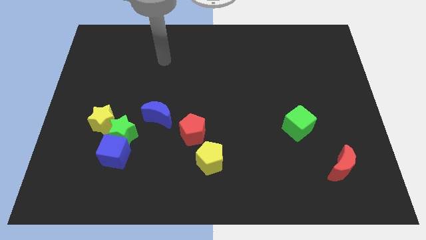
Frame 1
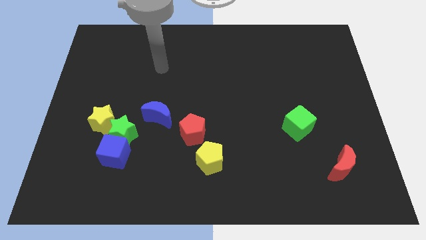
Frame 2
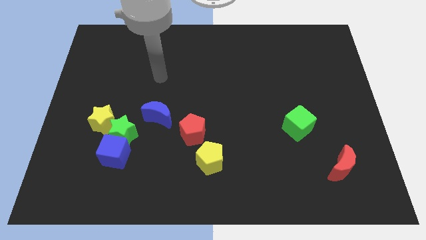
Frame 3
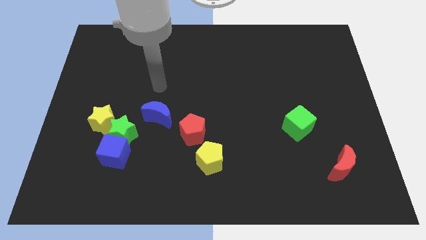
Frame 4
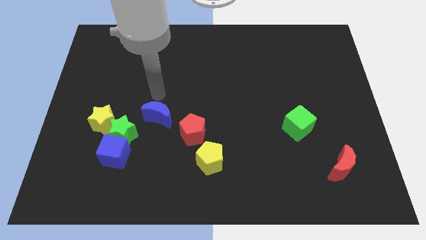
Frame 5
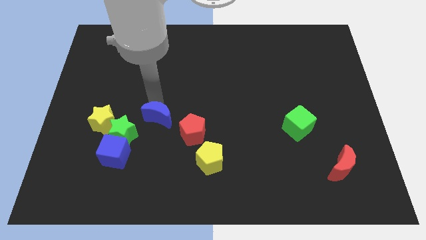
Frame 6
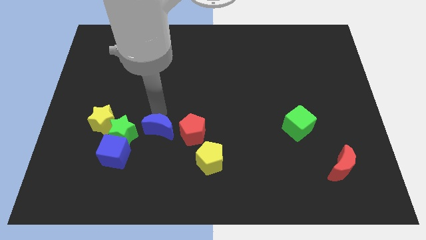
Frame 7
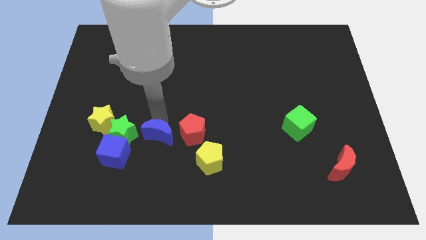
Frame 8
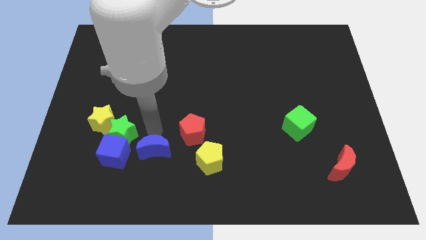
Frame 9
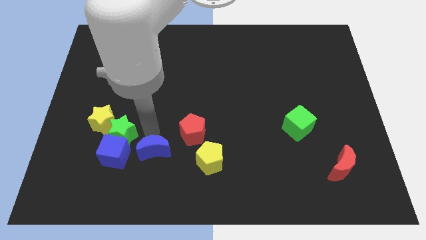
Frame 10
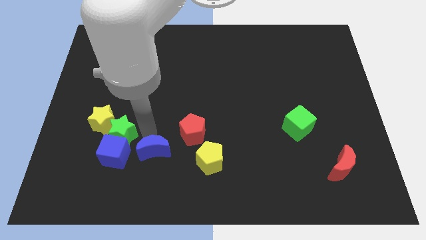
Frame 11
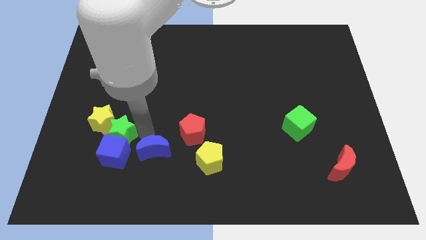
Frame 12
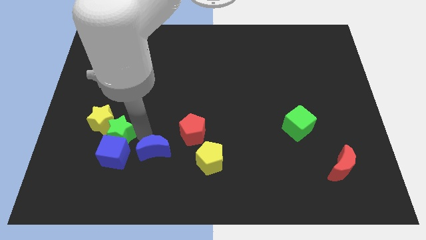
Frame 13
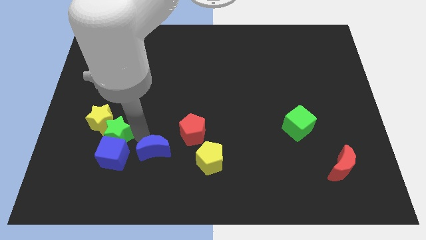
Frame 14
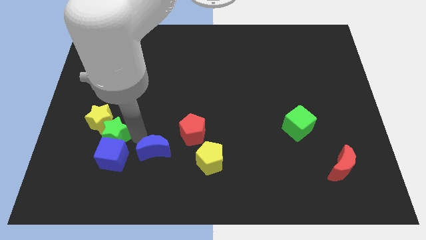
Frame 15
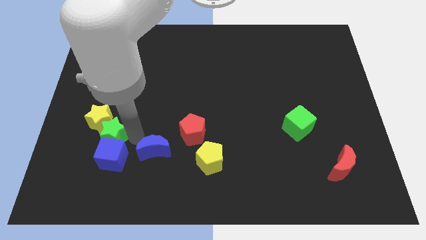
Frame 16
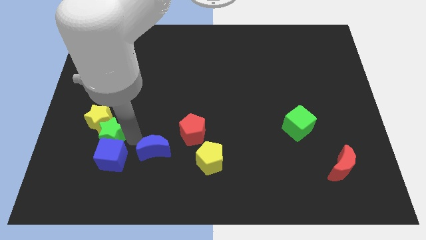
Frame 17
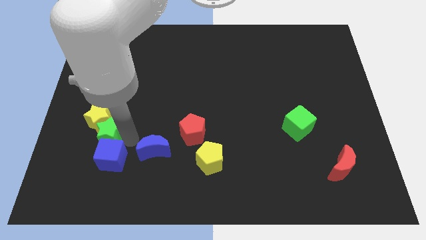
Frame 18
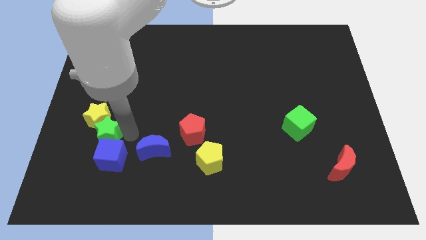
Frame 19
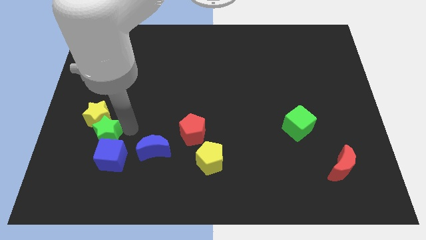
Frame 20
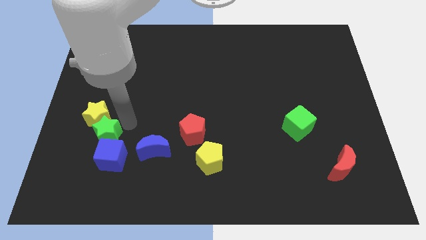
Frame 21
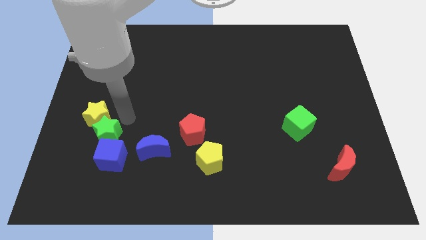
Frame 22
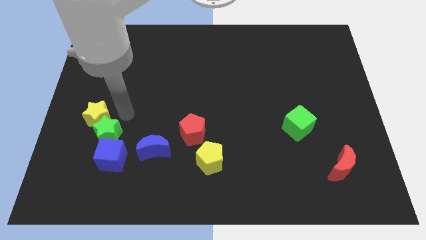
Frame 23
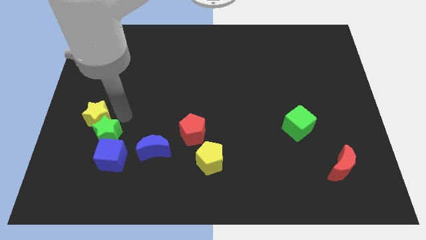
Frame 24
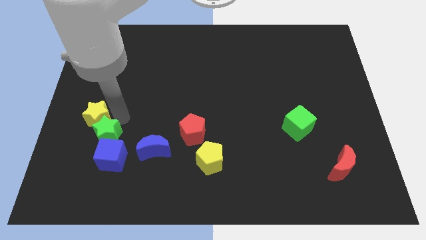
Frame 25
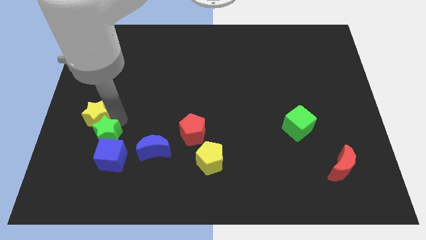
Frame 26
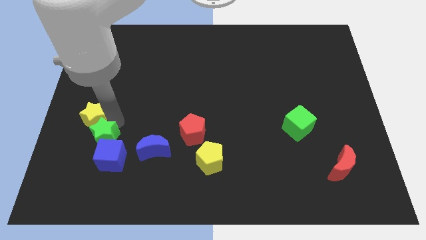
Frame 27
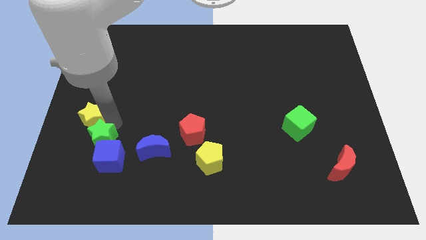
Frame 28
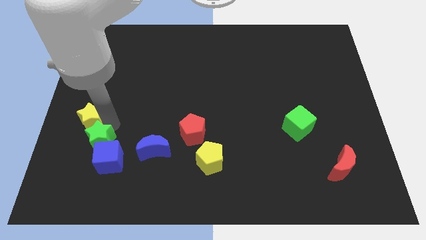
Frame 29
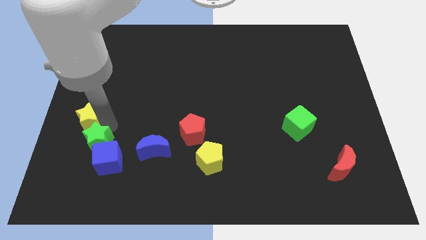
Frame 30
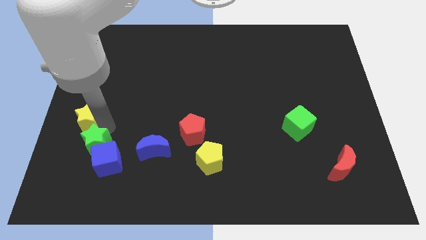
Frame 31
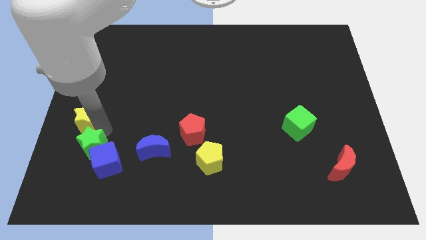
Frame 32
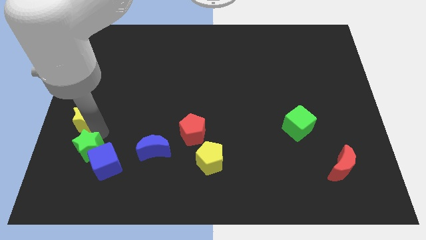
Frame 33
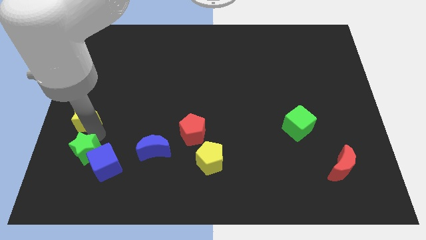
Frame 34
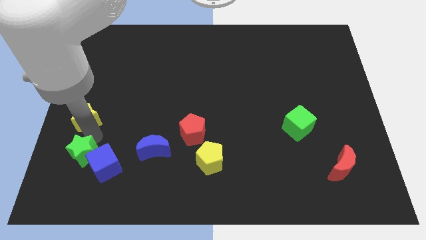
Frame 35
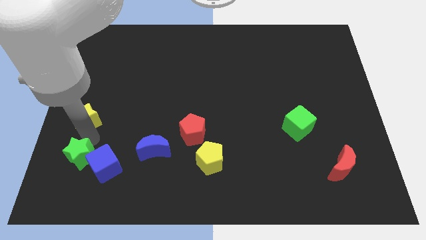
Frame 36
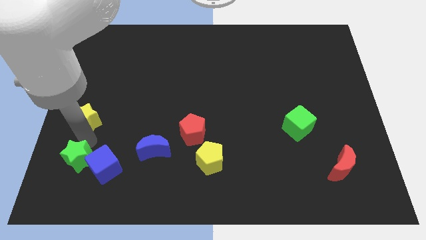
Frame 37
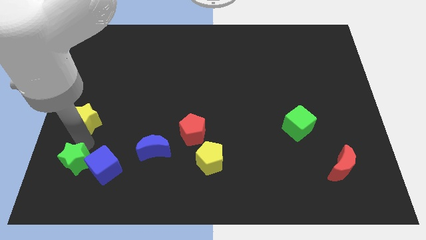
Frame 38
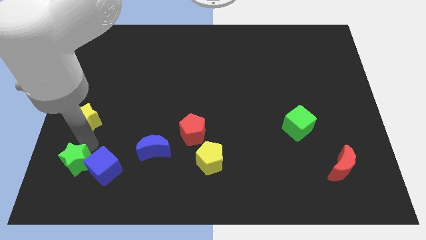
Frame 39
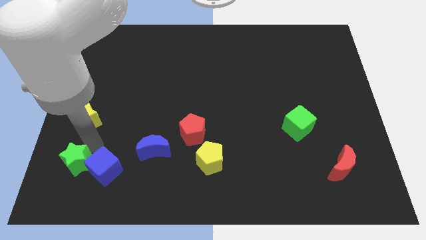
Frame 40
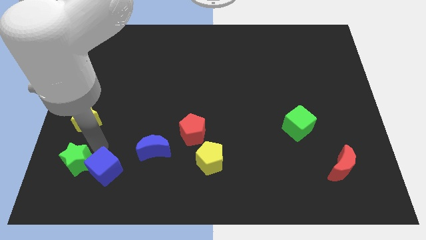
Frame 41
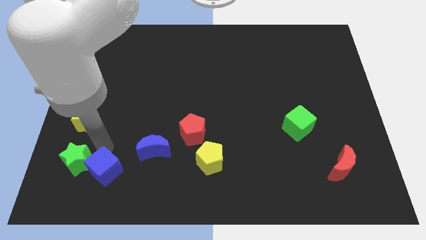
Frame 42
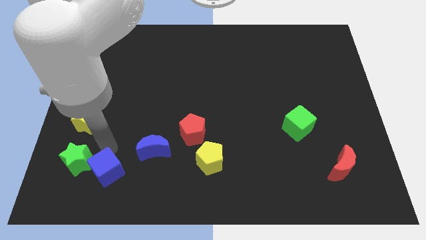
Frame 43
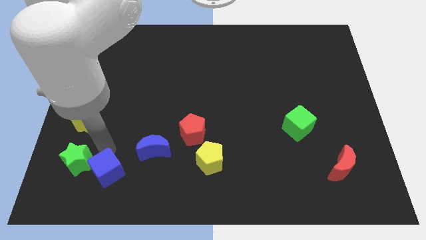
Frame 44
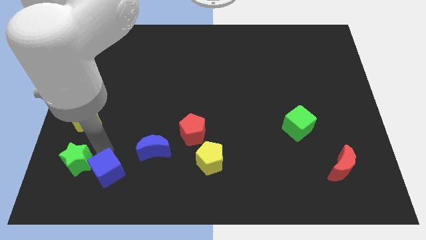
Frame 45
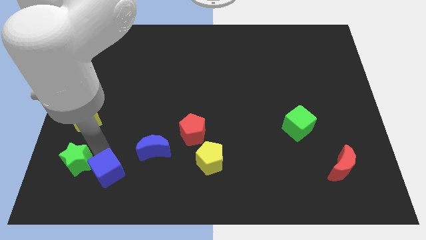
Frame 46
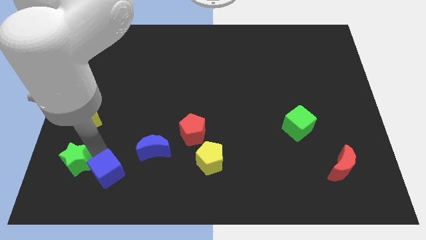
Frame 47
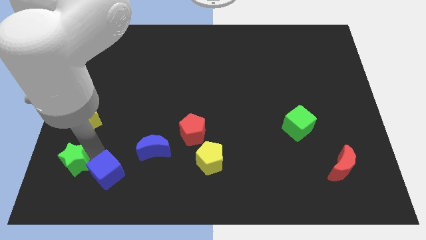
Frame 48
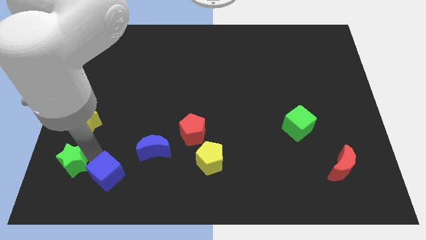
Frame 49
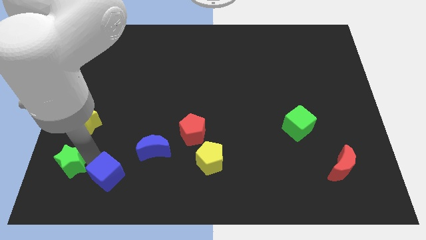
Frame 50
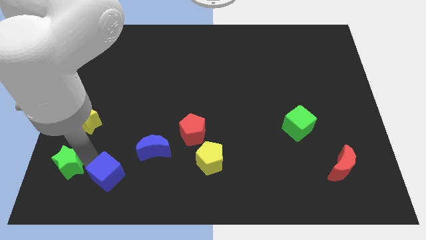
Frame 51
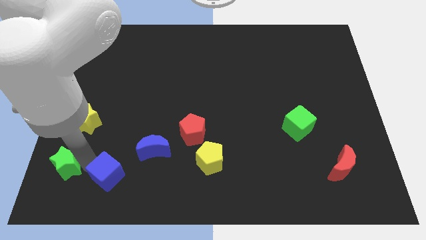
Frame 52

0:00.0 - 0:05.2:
pull the green star apart from the blue cube, yellow star, and blue moon

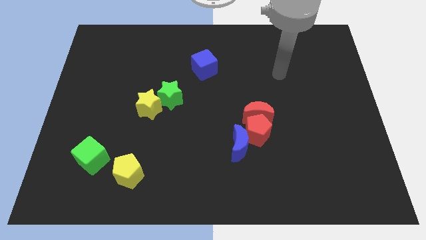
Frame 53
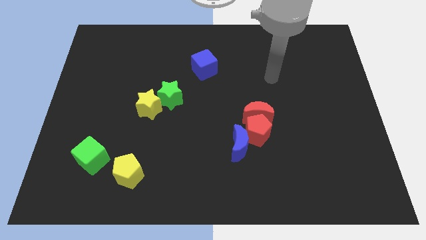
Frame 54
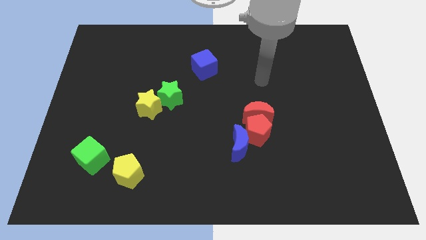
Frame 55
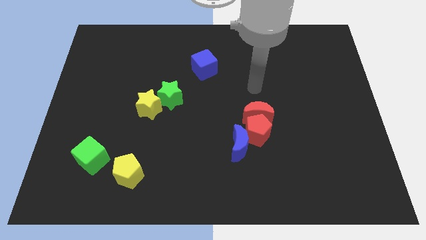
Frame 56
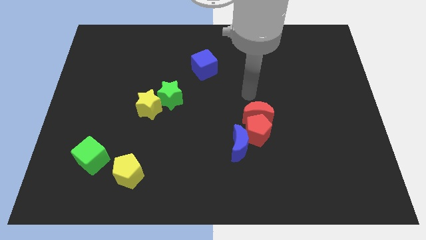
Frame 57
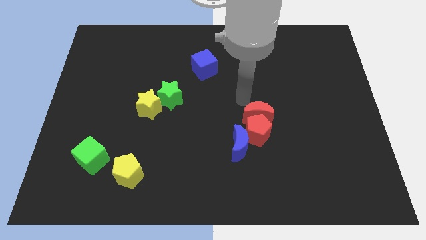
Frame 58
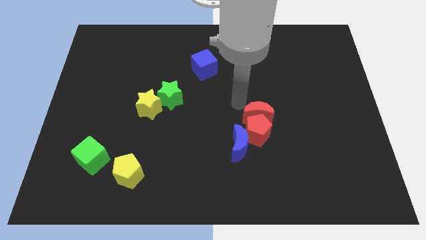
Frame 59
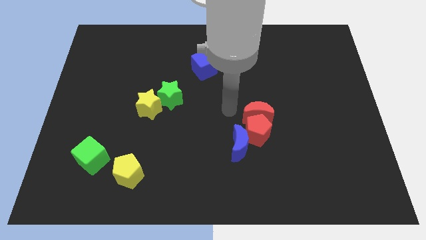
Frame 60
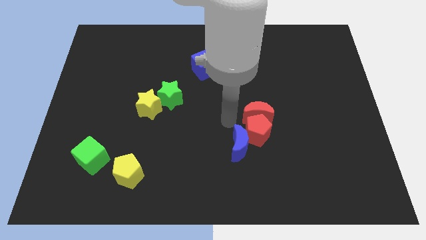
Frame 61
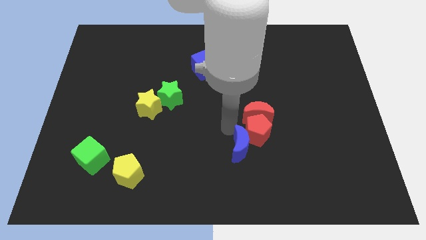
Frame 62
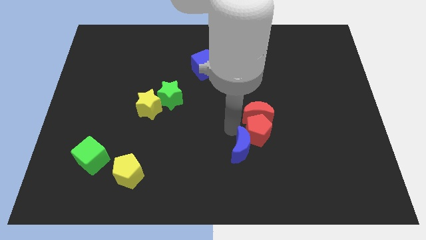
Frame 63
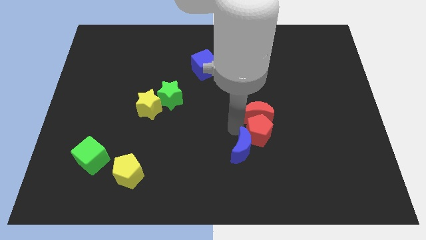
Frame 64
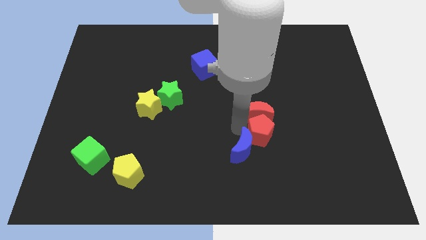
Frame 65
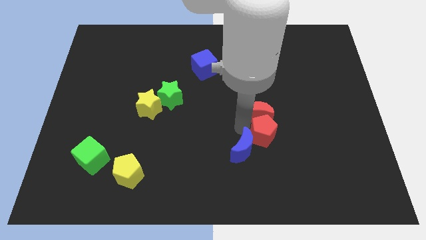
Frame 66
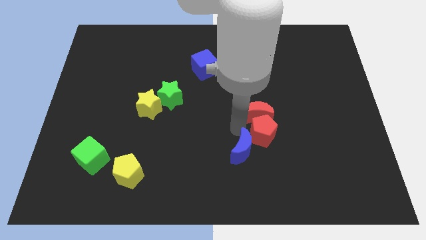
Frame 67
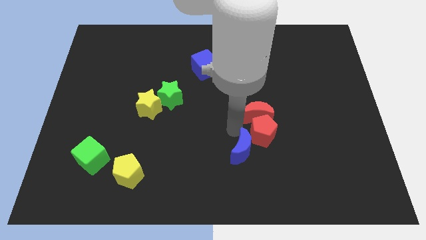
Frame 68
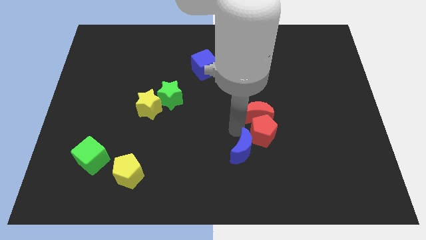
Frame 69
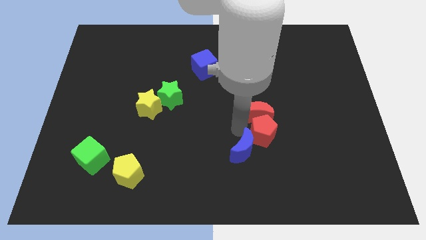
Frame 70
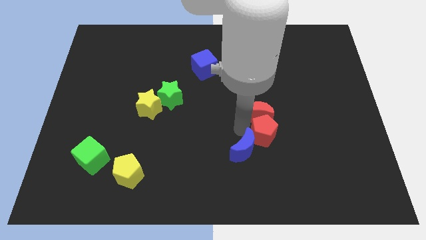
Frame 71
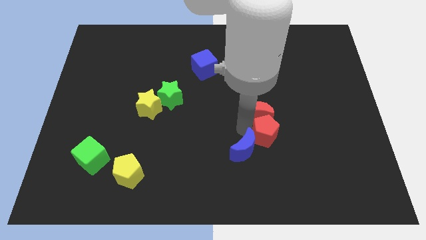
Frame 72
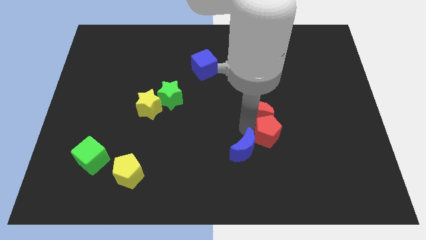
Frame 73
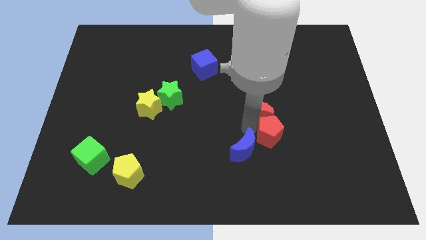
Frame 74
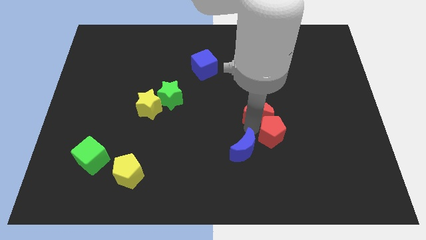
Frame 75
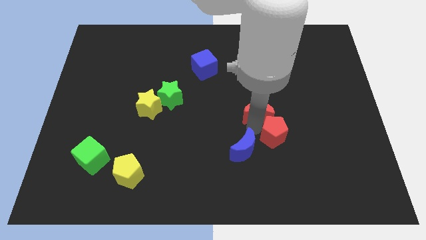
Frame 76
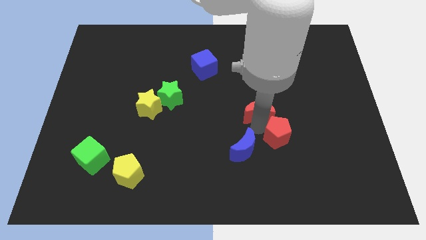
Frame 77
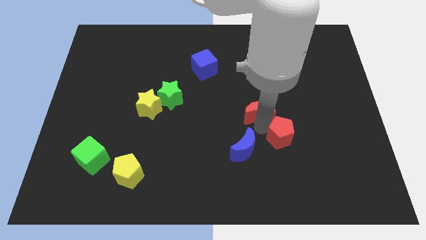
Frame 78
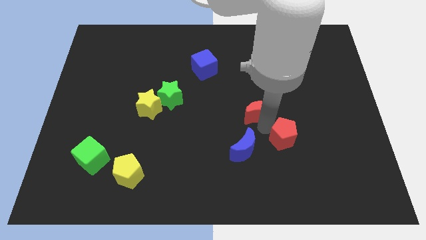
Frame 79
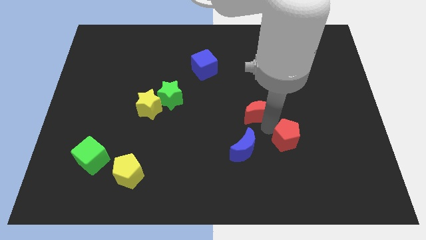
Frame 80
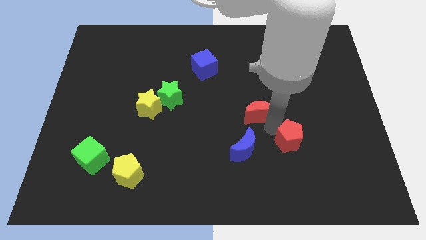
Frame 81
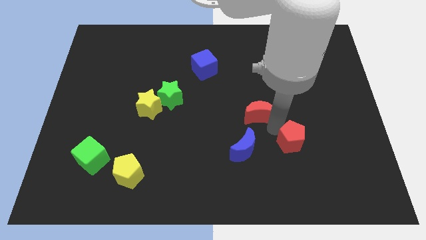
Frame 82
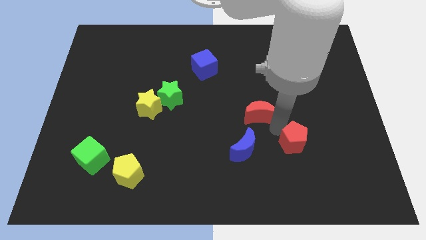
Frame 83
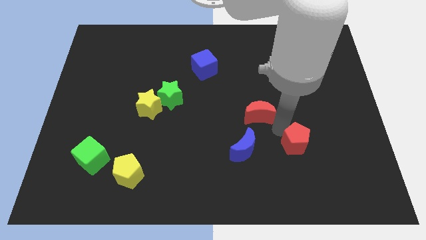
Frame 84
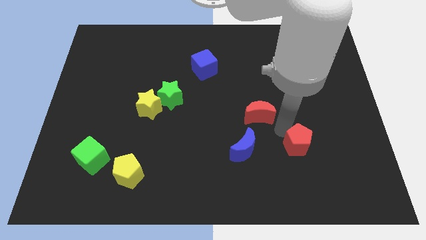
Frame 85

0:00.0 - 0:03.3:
separate the red pentagon from the red moon and blue moon

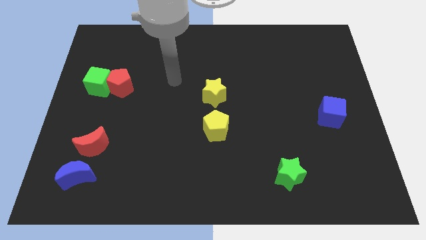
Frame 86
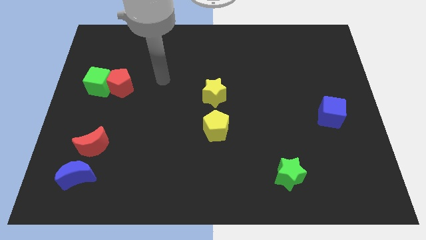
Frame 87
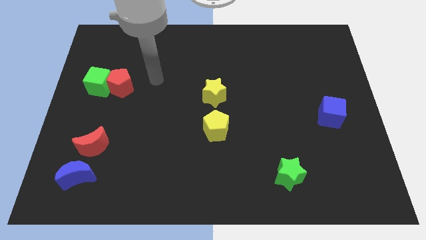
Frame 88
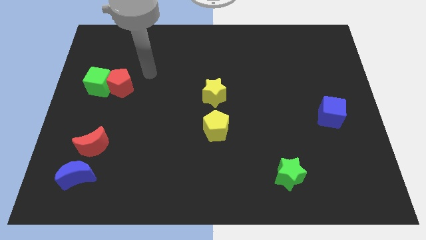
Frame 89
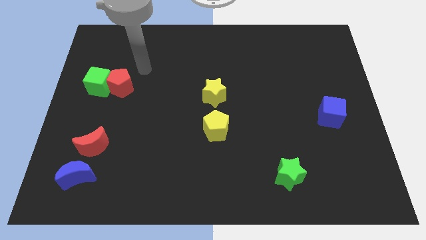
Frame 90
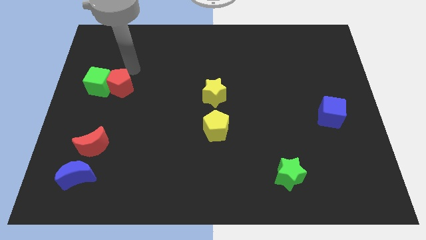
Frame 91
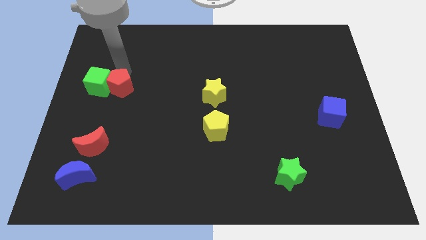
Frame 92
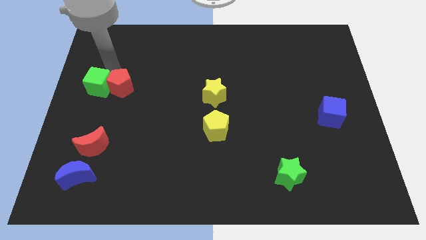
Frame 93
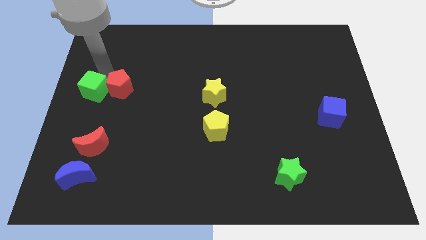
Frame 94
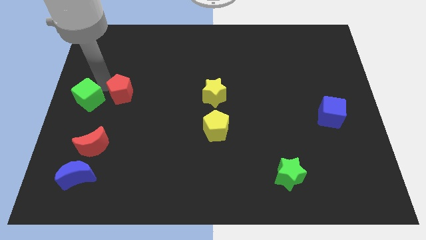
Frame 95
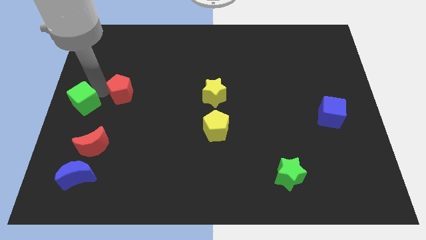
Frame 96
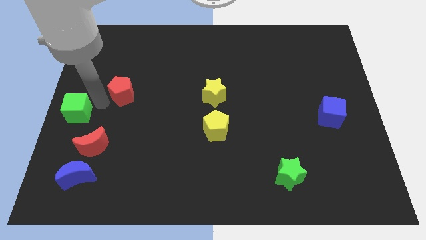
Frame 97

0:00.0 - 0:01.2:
pull the red pentagon apart from the green cube
